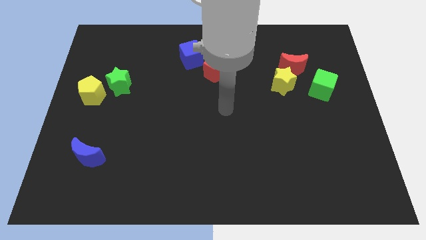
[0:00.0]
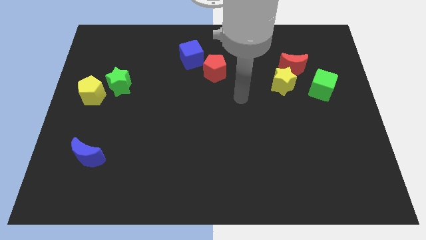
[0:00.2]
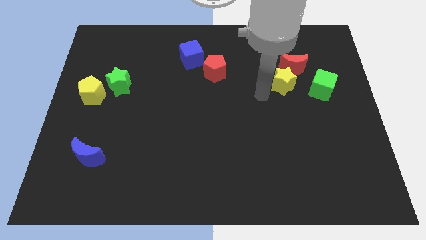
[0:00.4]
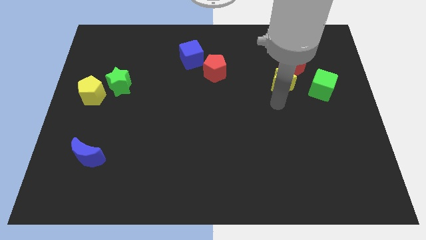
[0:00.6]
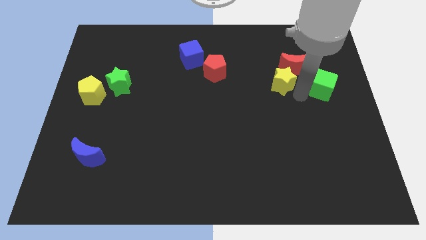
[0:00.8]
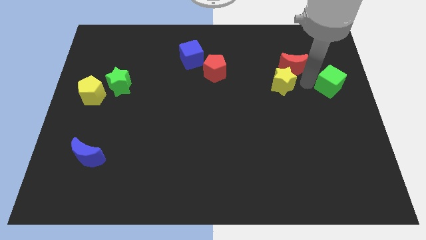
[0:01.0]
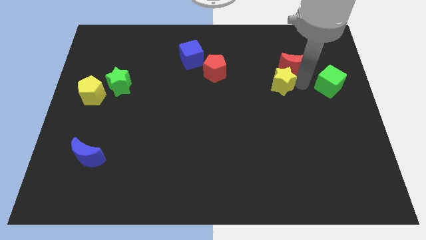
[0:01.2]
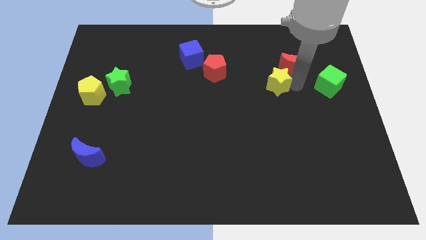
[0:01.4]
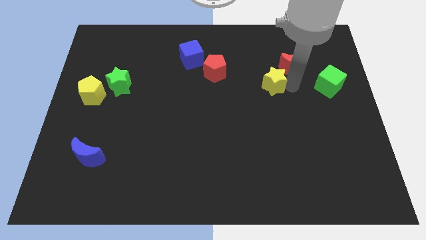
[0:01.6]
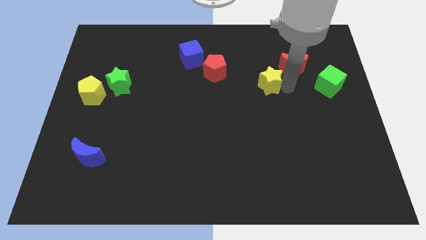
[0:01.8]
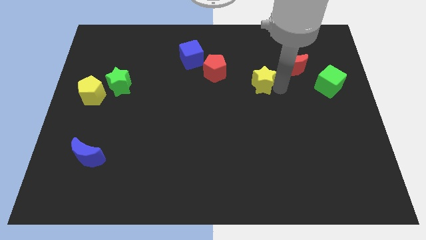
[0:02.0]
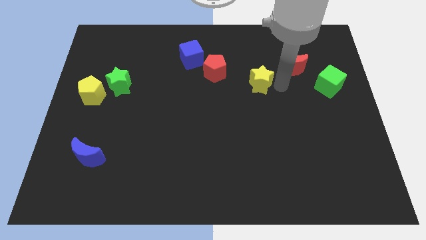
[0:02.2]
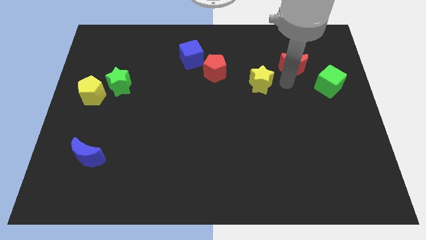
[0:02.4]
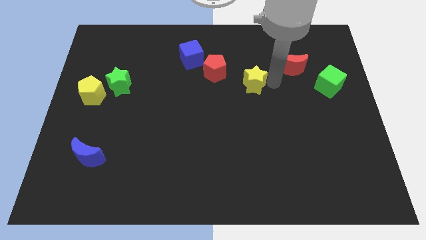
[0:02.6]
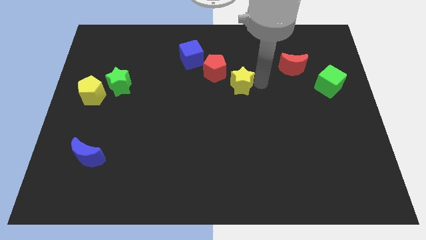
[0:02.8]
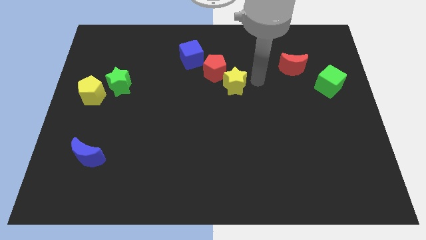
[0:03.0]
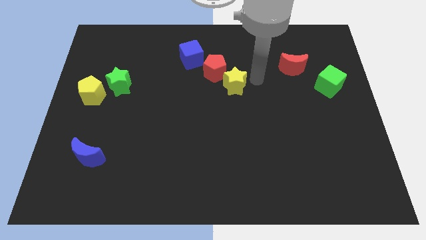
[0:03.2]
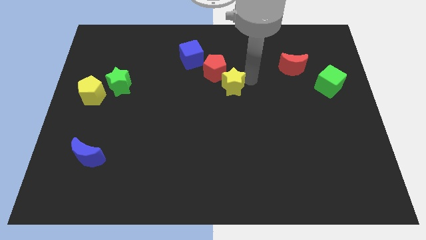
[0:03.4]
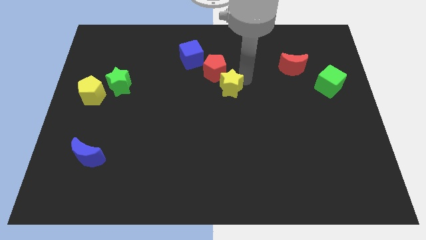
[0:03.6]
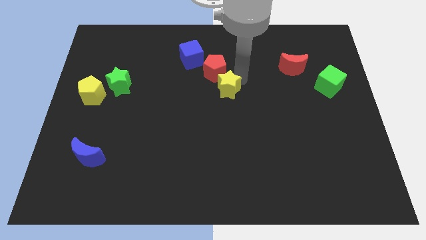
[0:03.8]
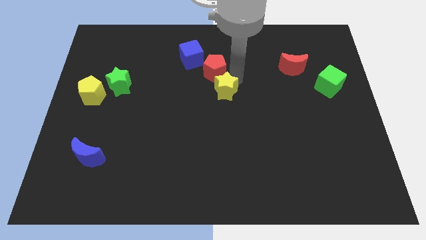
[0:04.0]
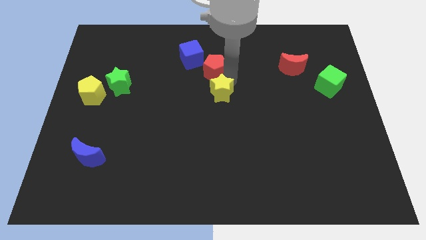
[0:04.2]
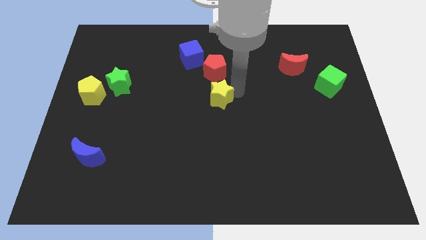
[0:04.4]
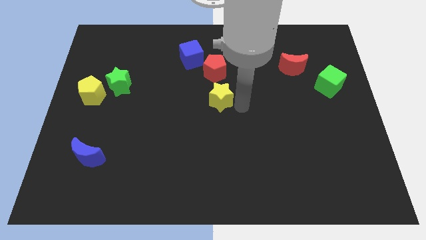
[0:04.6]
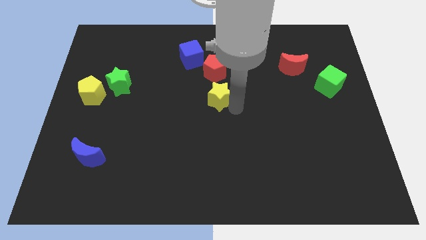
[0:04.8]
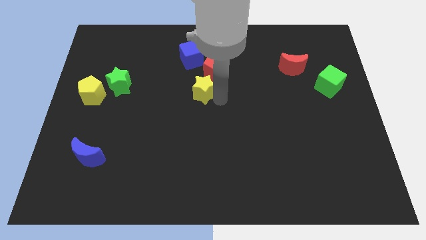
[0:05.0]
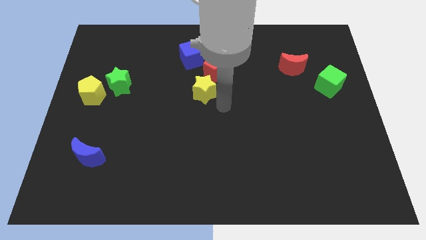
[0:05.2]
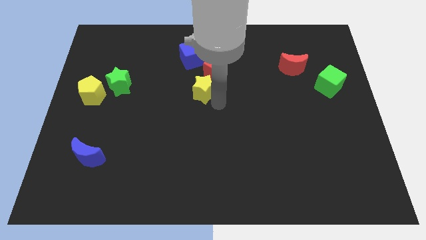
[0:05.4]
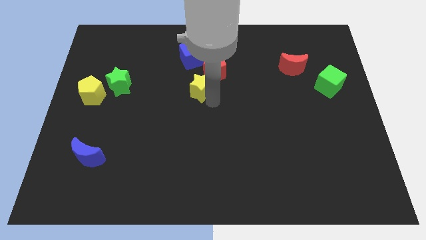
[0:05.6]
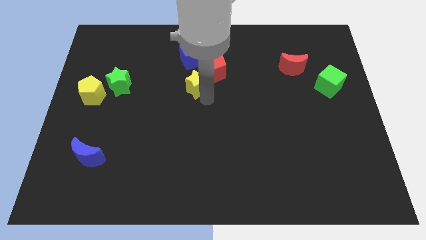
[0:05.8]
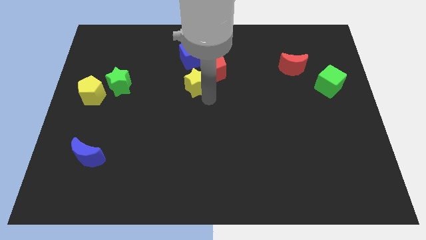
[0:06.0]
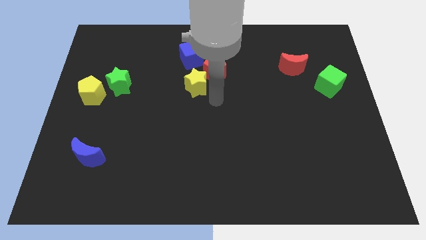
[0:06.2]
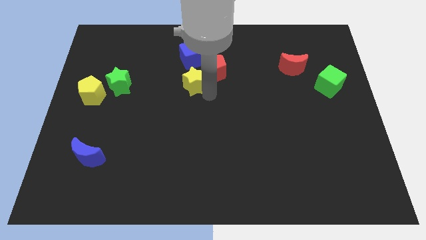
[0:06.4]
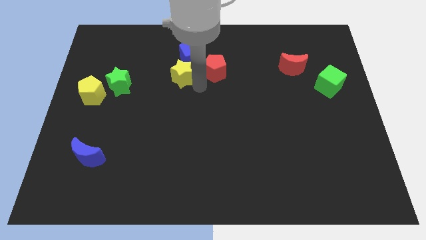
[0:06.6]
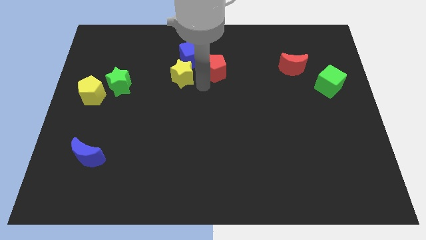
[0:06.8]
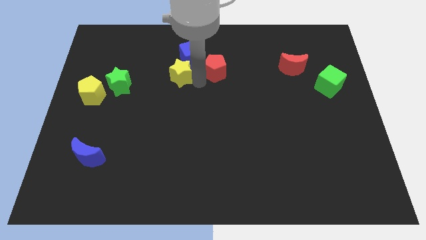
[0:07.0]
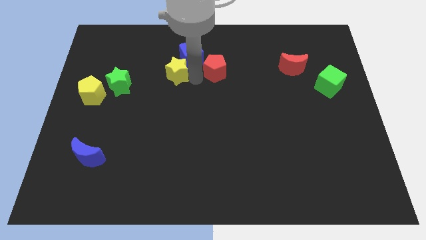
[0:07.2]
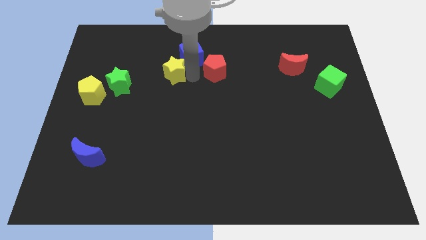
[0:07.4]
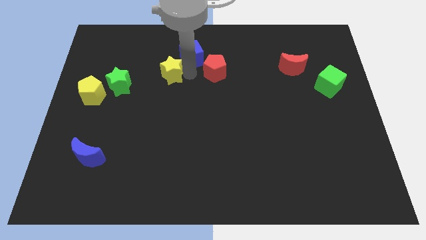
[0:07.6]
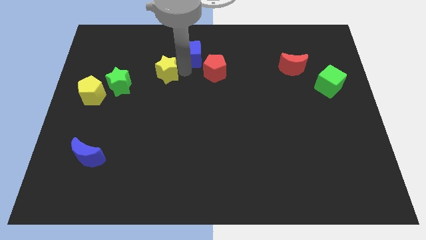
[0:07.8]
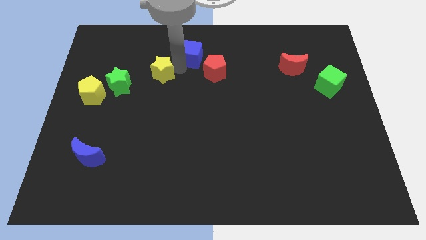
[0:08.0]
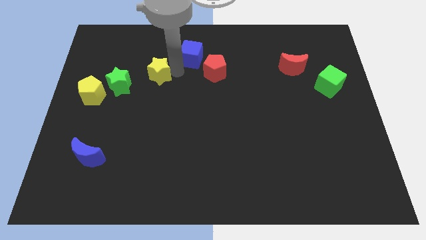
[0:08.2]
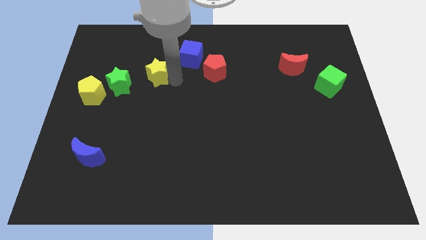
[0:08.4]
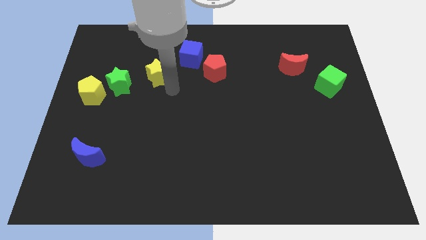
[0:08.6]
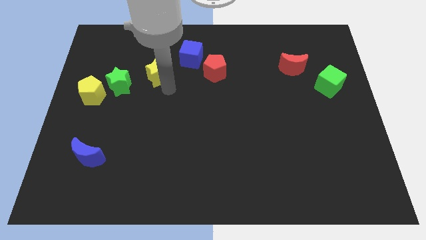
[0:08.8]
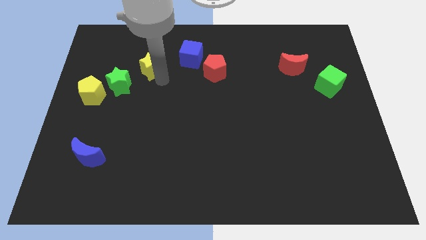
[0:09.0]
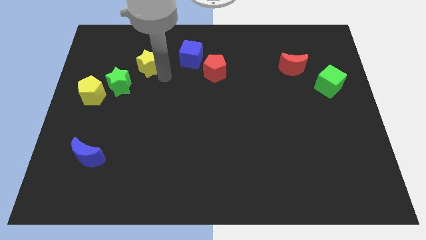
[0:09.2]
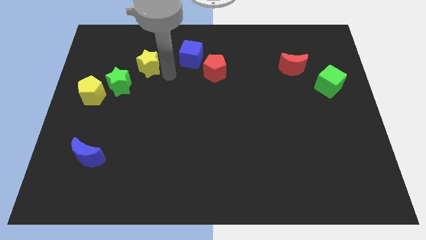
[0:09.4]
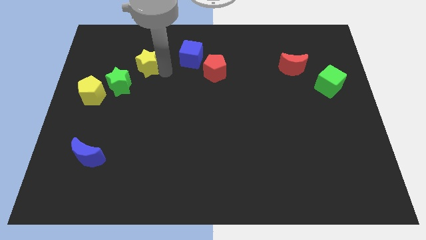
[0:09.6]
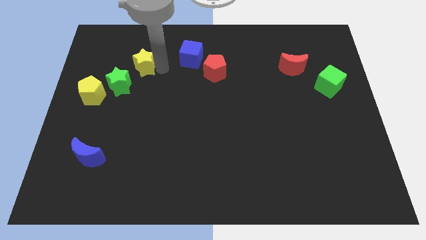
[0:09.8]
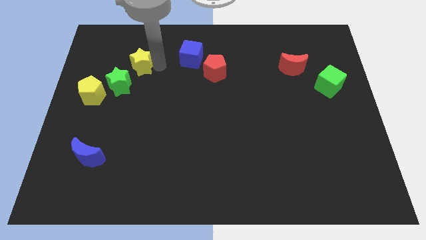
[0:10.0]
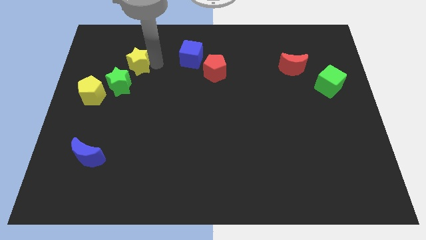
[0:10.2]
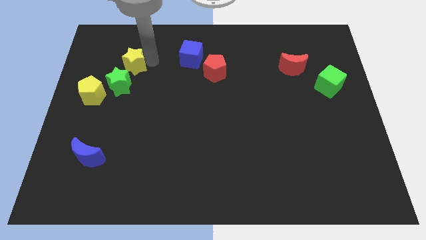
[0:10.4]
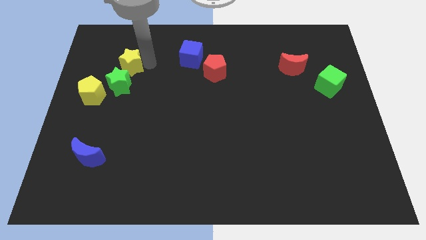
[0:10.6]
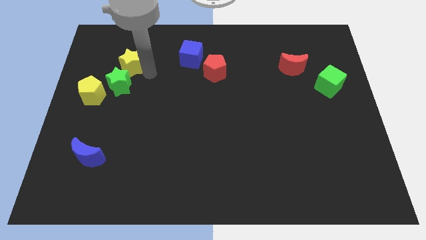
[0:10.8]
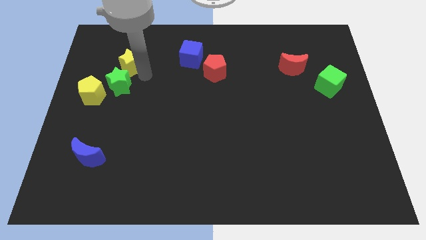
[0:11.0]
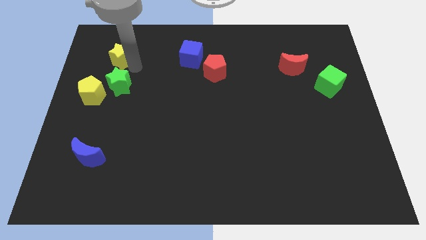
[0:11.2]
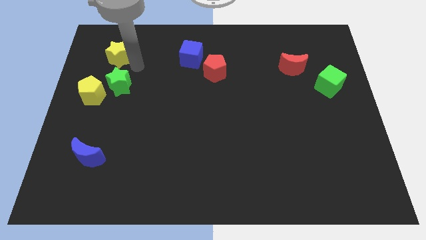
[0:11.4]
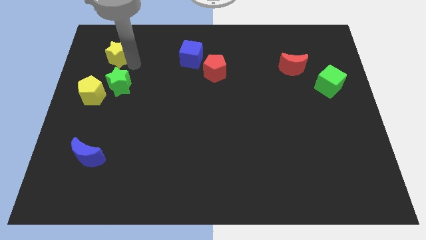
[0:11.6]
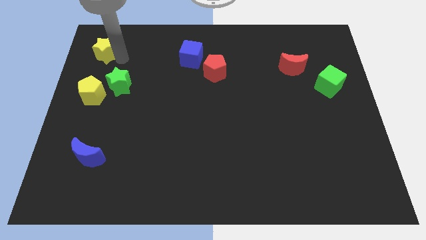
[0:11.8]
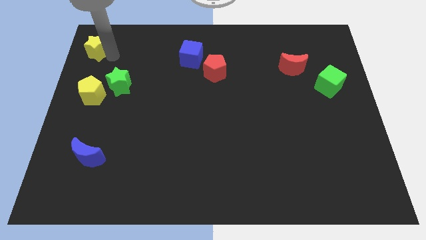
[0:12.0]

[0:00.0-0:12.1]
push the yellow star to the top left

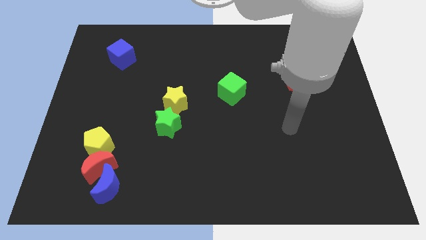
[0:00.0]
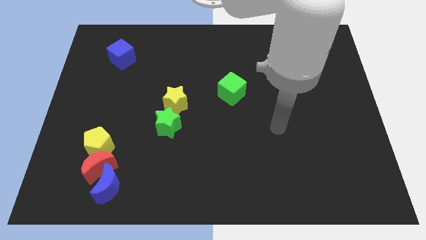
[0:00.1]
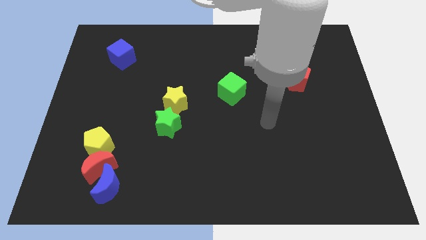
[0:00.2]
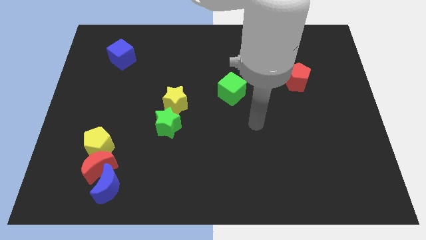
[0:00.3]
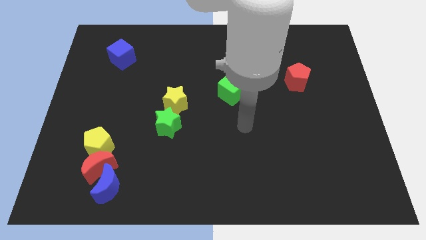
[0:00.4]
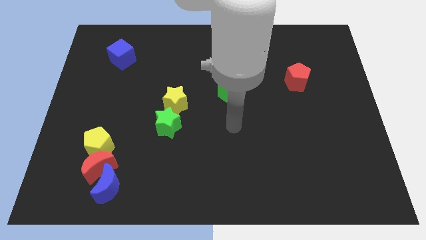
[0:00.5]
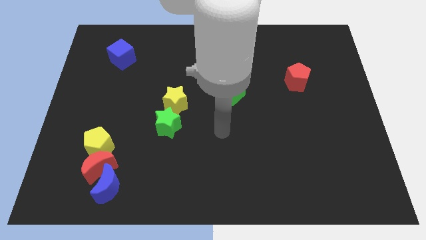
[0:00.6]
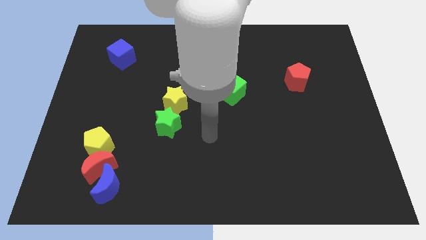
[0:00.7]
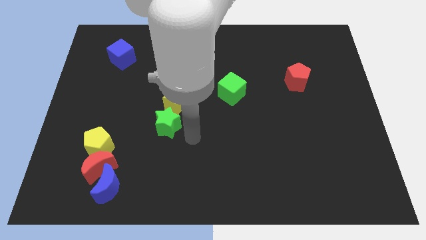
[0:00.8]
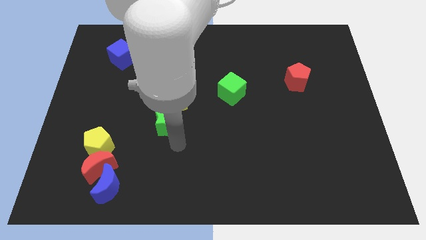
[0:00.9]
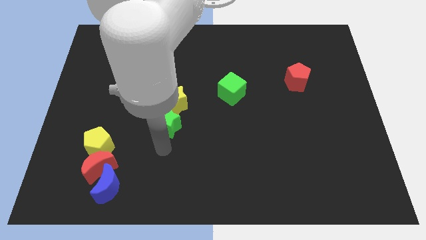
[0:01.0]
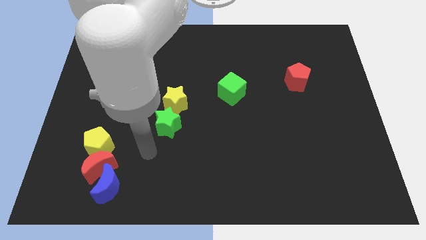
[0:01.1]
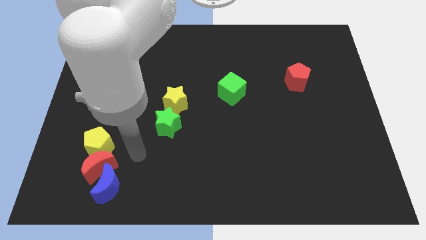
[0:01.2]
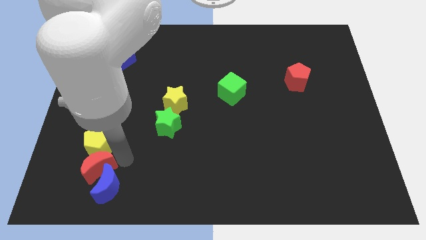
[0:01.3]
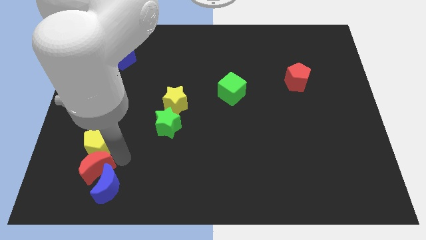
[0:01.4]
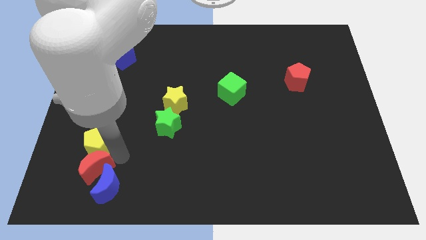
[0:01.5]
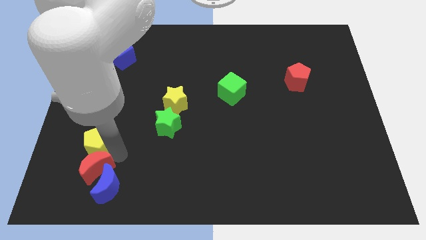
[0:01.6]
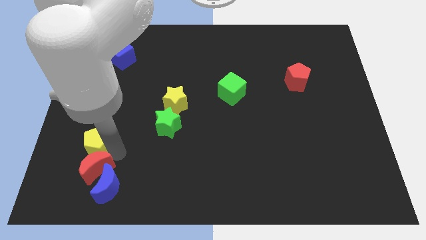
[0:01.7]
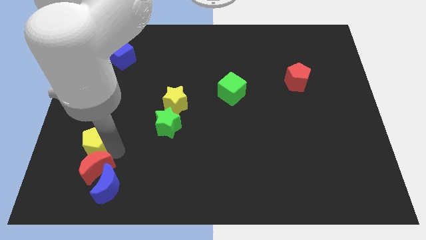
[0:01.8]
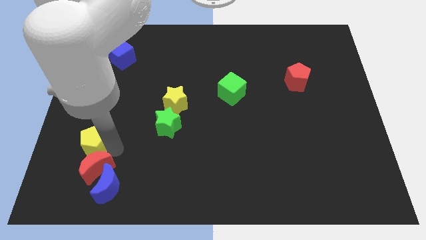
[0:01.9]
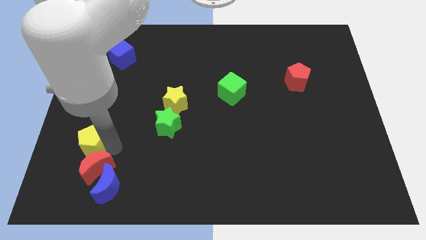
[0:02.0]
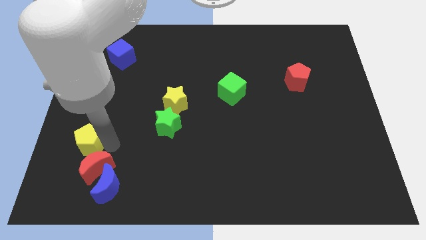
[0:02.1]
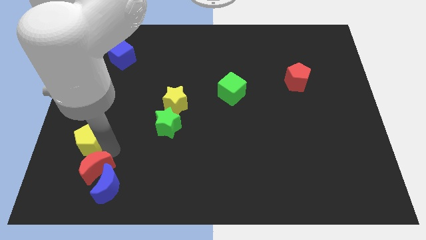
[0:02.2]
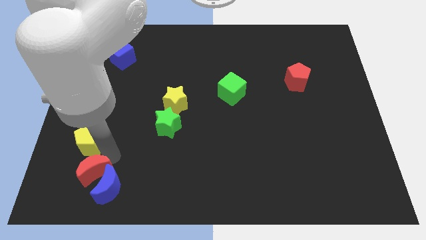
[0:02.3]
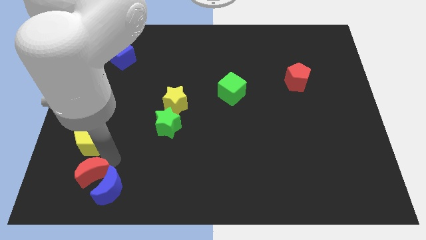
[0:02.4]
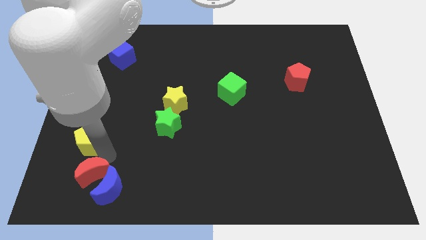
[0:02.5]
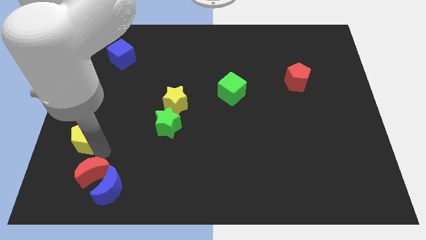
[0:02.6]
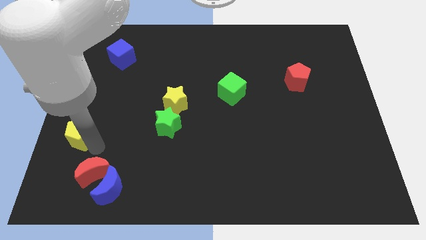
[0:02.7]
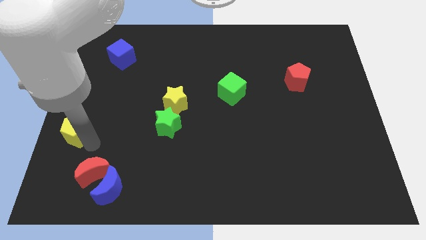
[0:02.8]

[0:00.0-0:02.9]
slide the yellow pentagon to the left side
